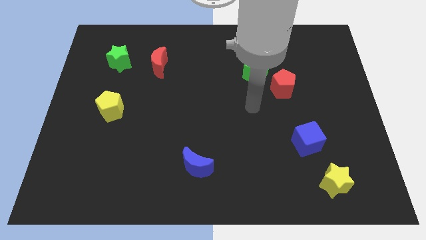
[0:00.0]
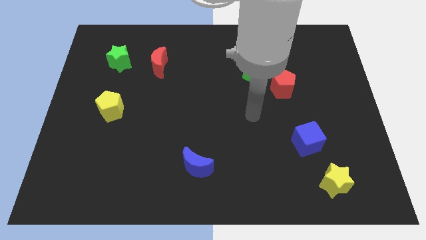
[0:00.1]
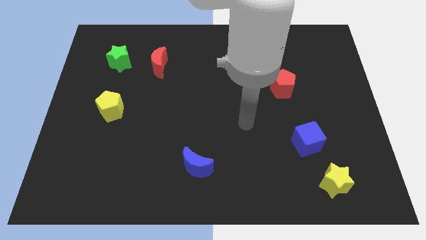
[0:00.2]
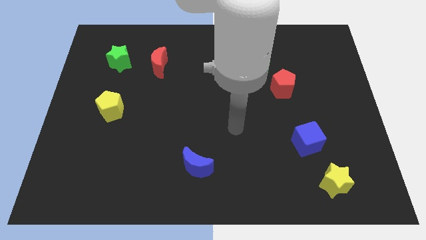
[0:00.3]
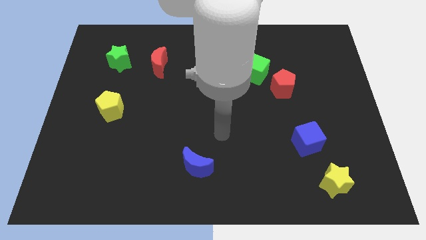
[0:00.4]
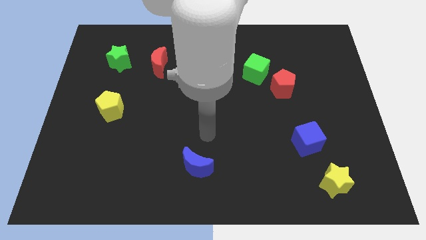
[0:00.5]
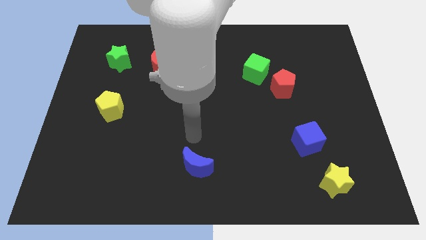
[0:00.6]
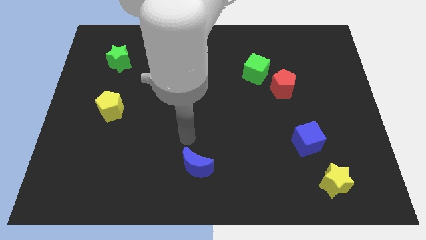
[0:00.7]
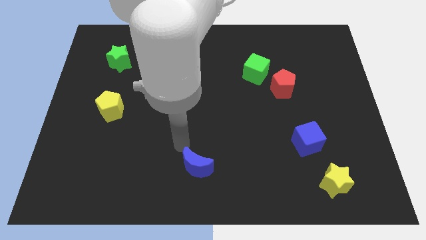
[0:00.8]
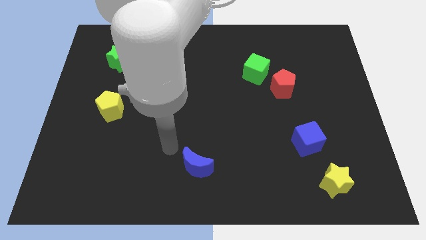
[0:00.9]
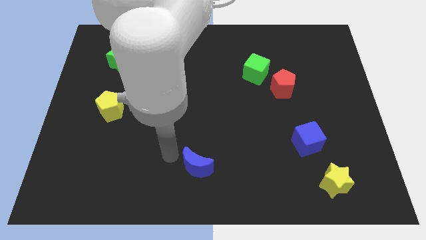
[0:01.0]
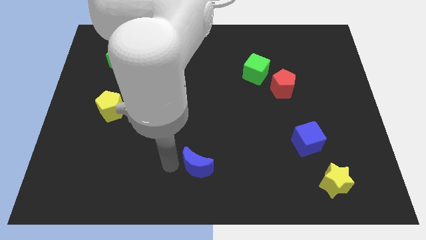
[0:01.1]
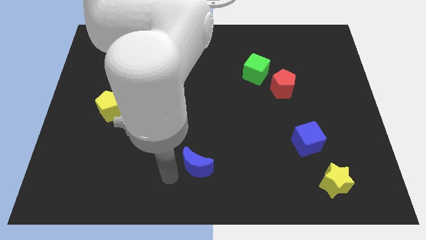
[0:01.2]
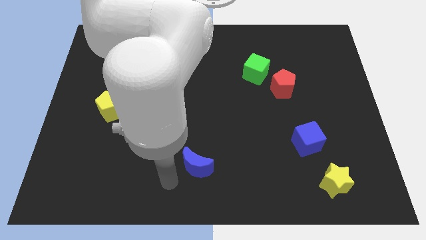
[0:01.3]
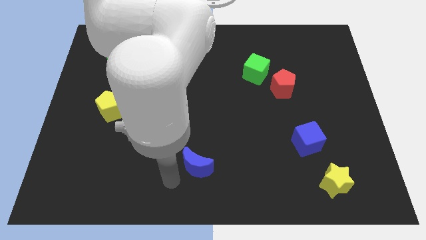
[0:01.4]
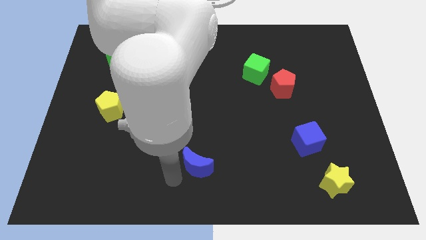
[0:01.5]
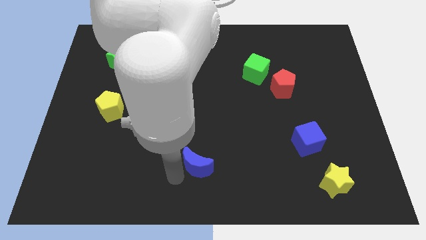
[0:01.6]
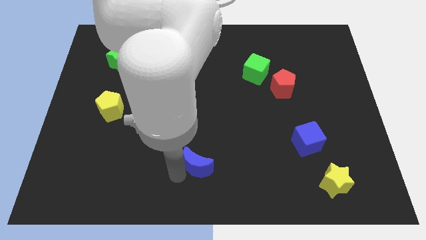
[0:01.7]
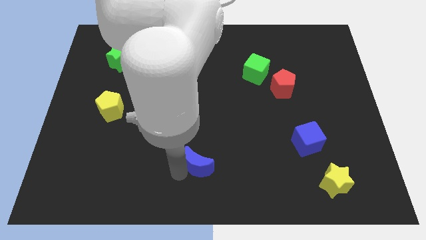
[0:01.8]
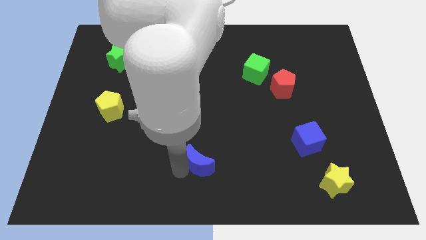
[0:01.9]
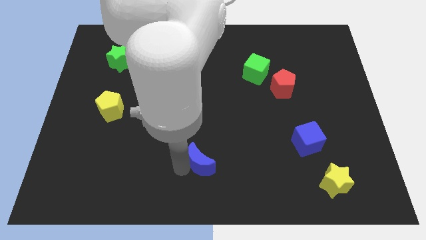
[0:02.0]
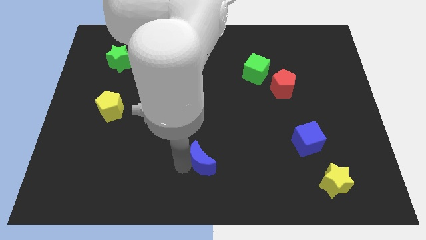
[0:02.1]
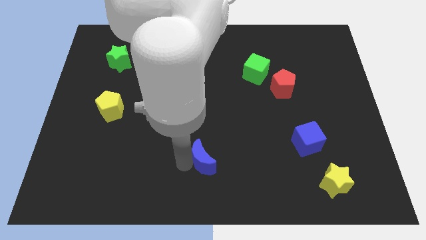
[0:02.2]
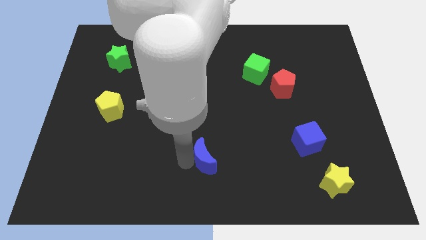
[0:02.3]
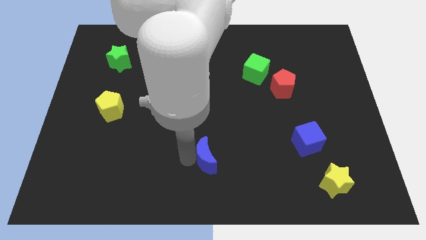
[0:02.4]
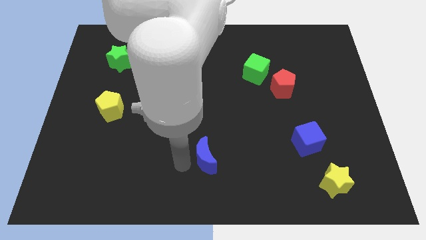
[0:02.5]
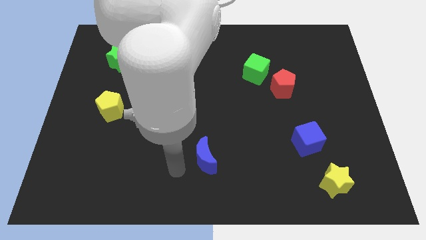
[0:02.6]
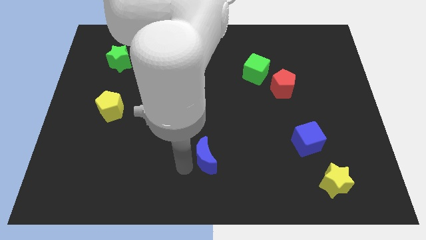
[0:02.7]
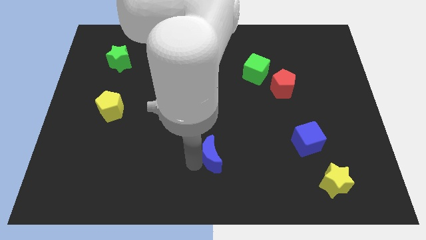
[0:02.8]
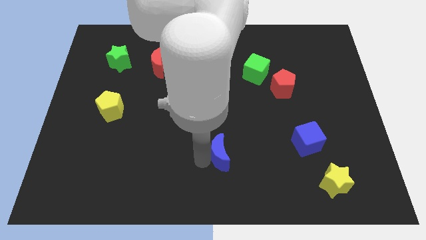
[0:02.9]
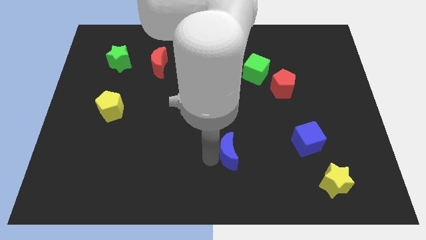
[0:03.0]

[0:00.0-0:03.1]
slightly move the blue moon up and right

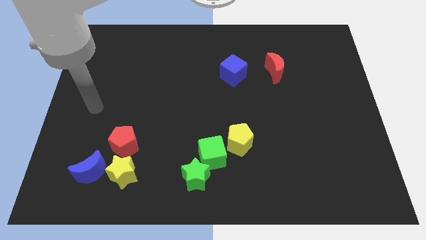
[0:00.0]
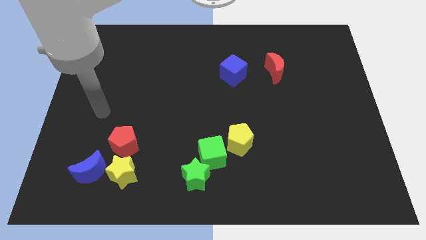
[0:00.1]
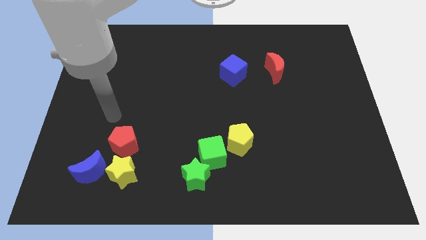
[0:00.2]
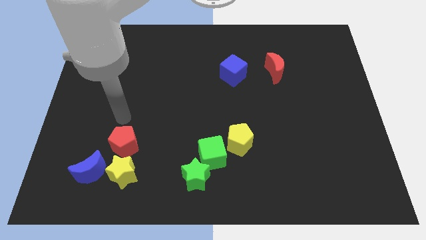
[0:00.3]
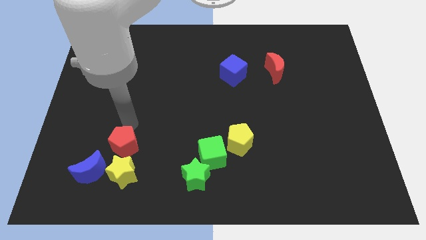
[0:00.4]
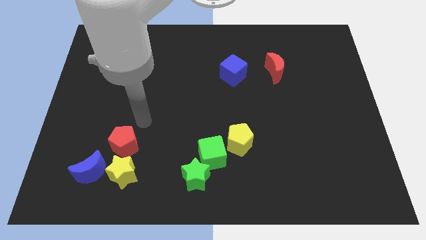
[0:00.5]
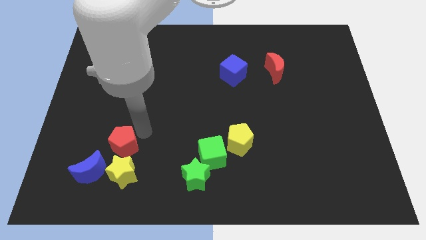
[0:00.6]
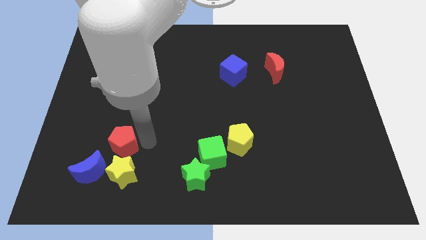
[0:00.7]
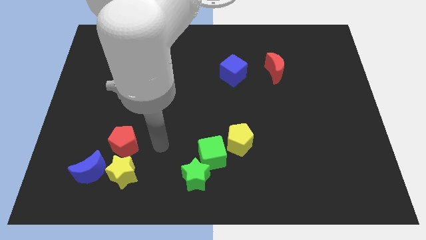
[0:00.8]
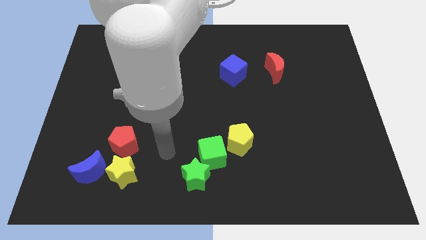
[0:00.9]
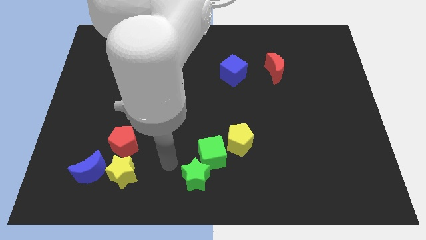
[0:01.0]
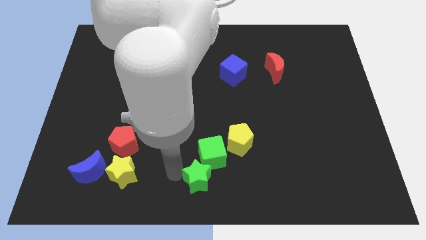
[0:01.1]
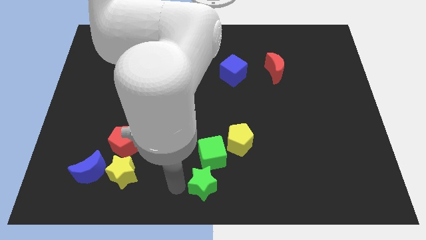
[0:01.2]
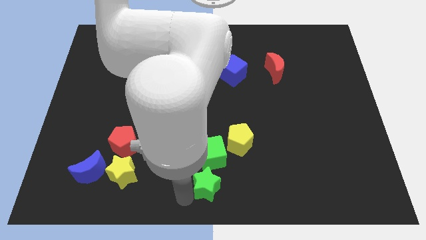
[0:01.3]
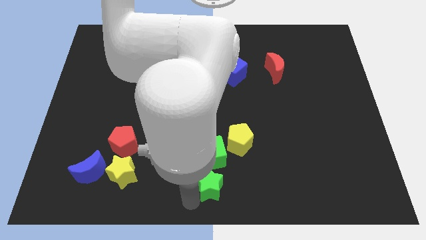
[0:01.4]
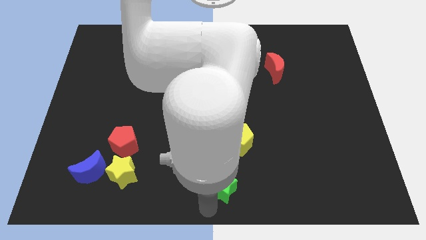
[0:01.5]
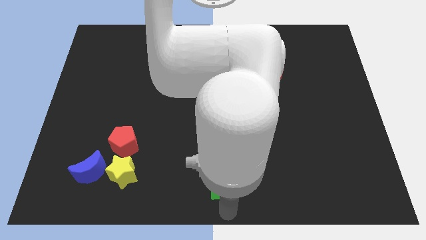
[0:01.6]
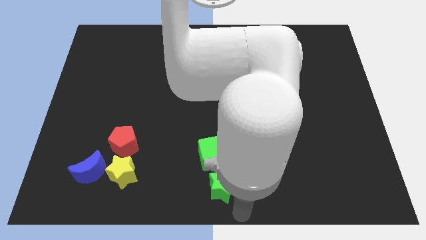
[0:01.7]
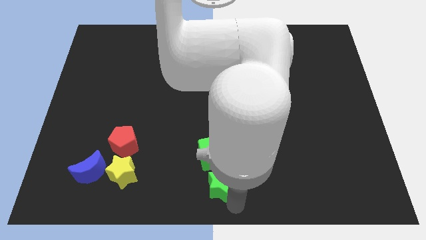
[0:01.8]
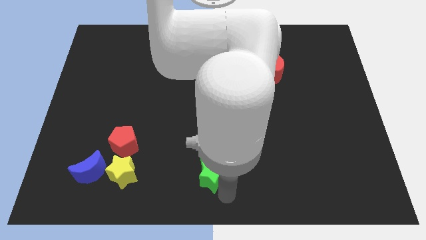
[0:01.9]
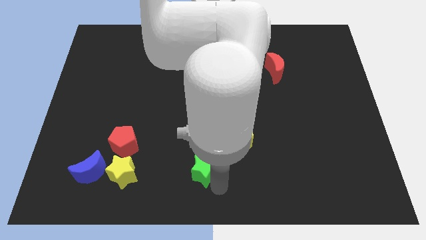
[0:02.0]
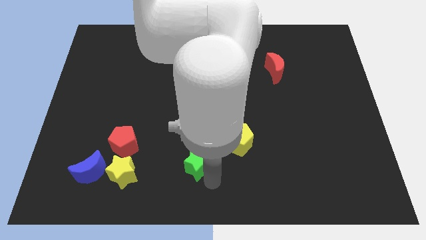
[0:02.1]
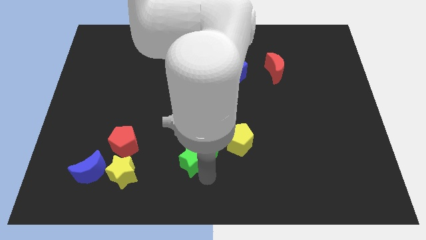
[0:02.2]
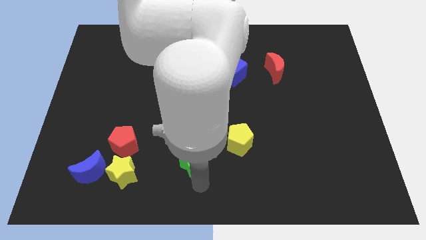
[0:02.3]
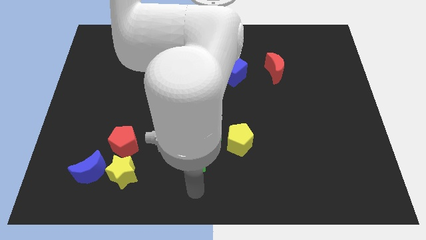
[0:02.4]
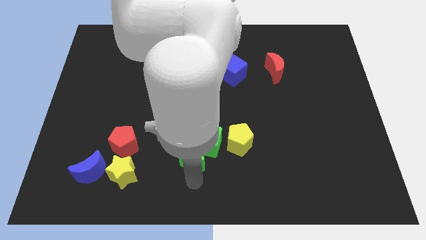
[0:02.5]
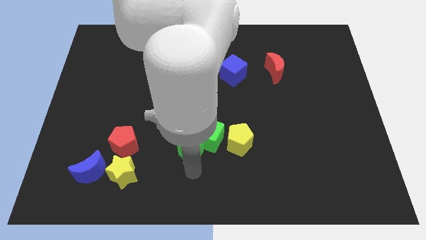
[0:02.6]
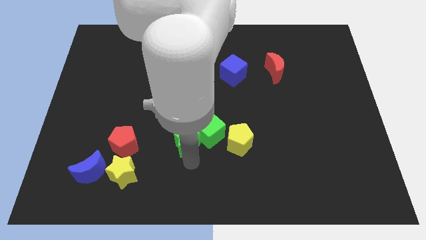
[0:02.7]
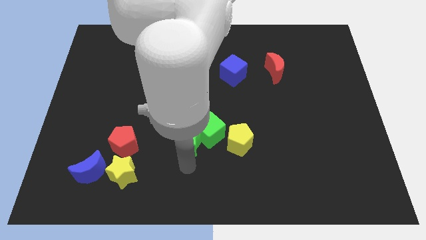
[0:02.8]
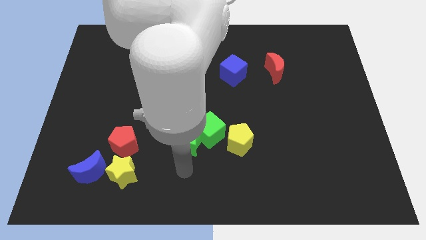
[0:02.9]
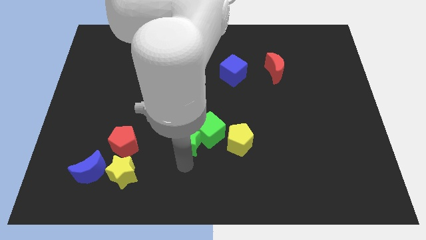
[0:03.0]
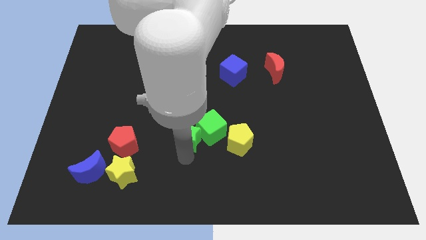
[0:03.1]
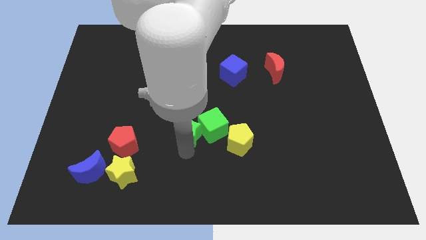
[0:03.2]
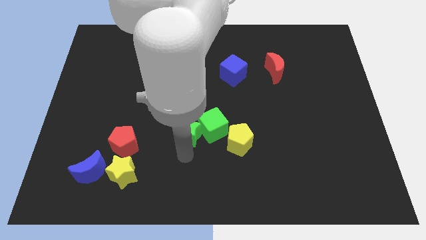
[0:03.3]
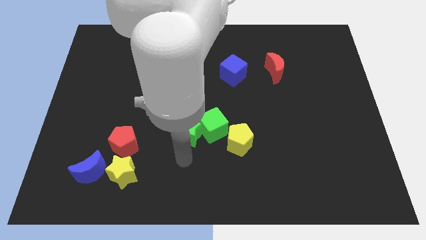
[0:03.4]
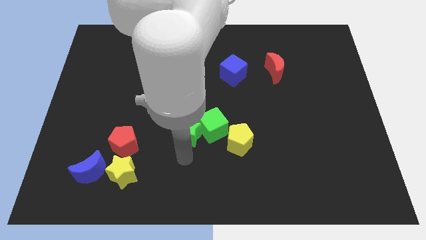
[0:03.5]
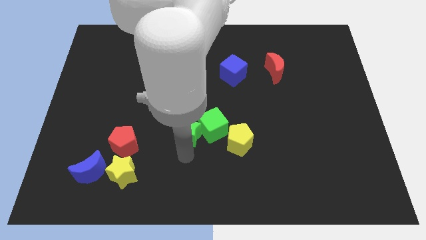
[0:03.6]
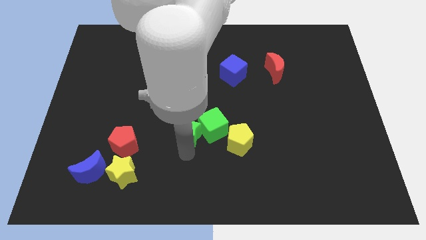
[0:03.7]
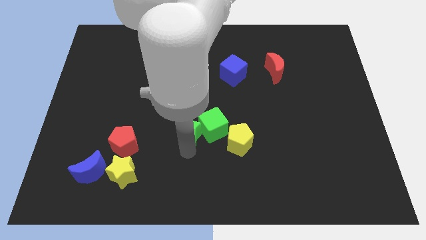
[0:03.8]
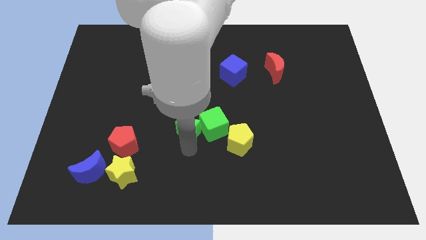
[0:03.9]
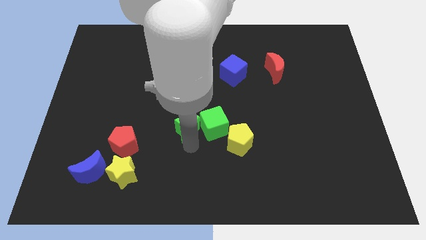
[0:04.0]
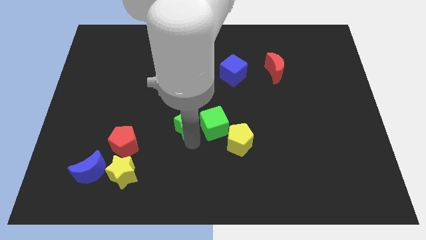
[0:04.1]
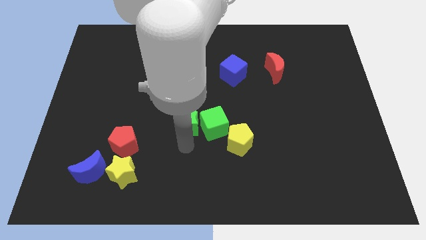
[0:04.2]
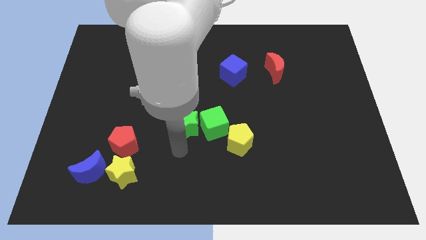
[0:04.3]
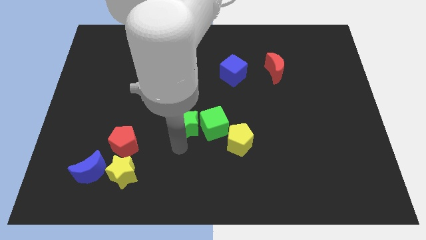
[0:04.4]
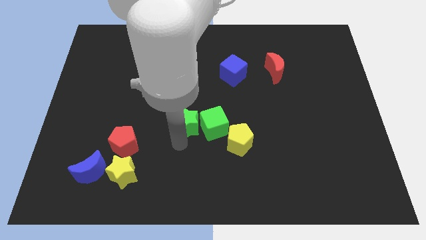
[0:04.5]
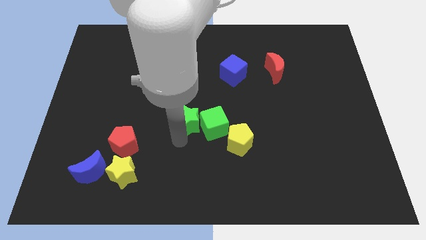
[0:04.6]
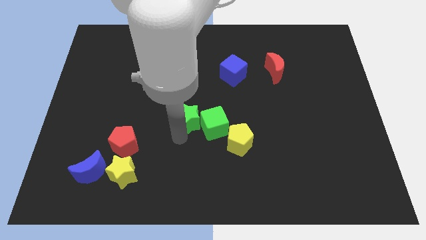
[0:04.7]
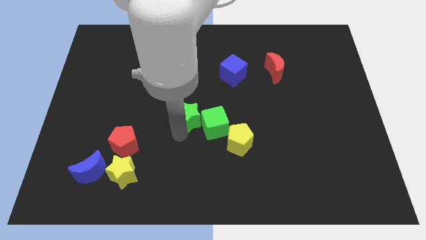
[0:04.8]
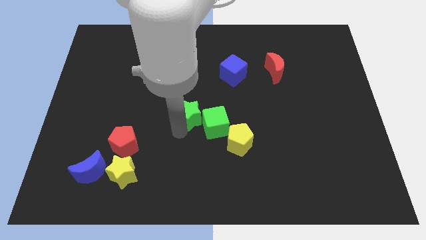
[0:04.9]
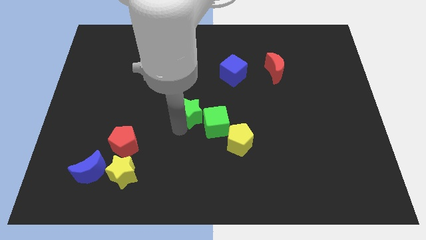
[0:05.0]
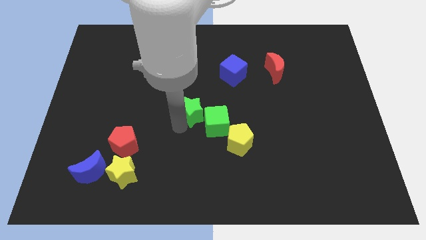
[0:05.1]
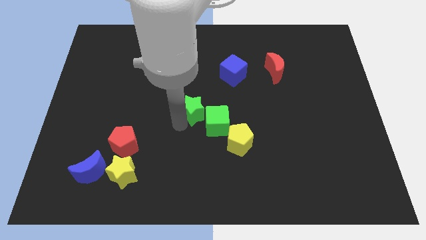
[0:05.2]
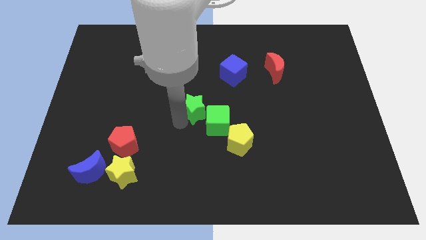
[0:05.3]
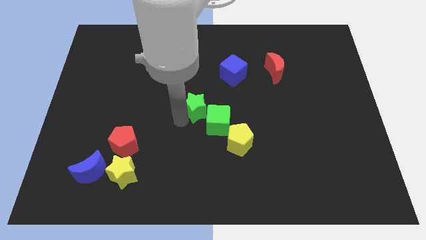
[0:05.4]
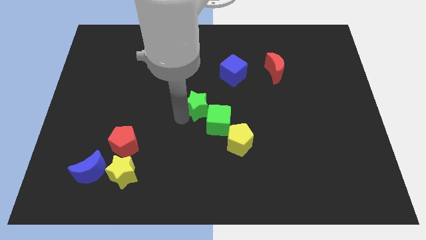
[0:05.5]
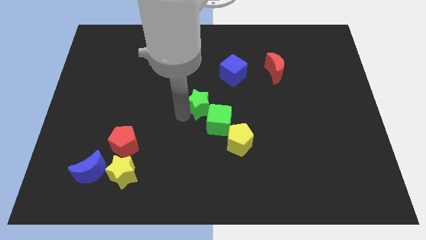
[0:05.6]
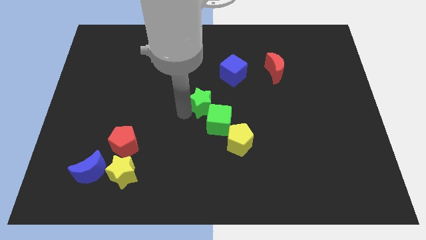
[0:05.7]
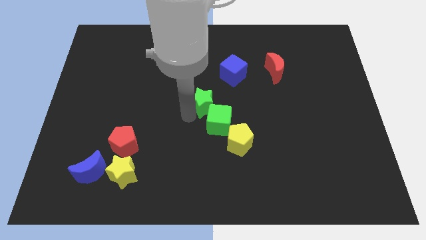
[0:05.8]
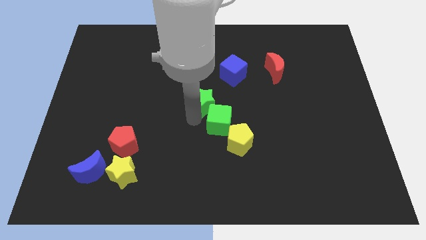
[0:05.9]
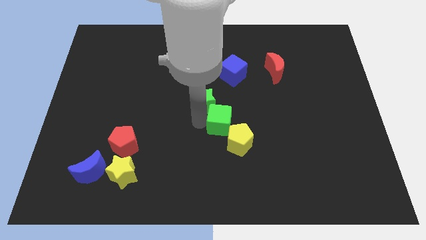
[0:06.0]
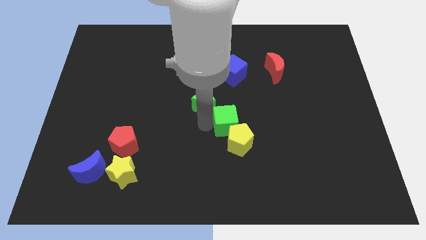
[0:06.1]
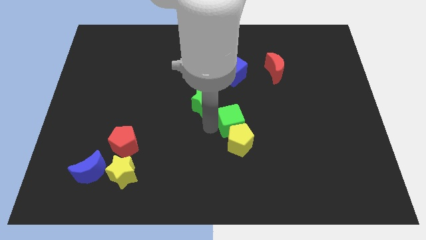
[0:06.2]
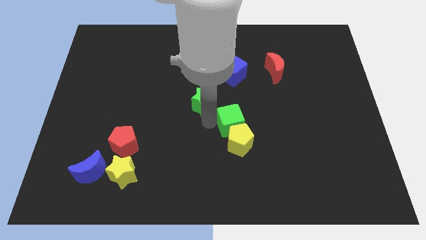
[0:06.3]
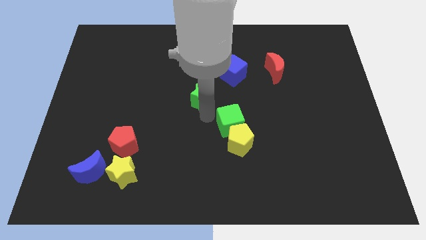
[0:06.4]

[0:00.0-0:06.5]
move the green star up
